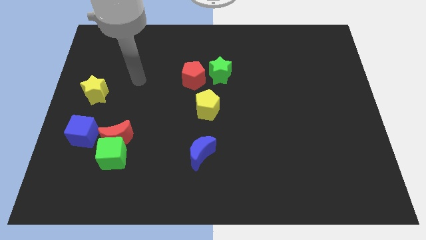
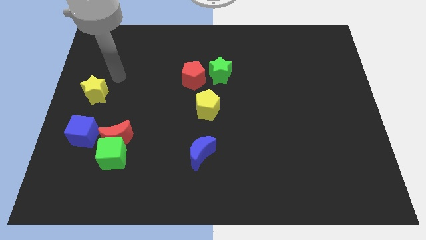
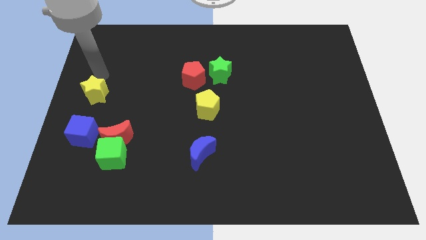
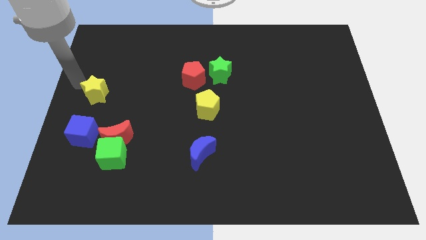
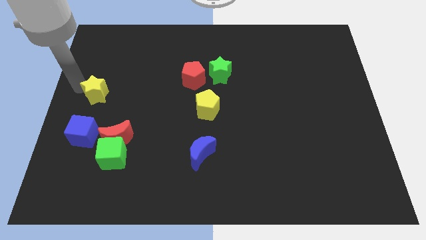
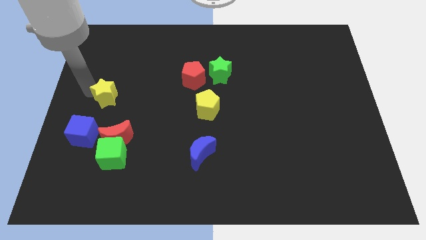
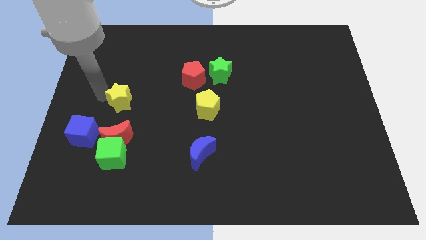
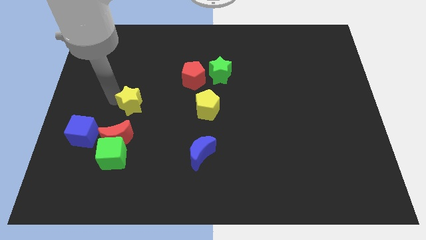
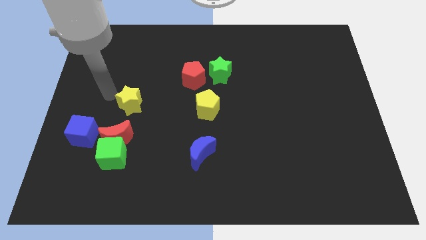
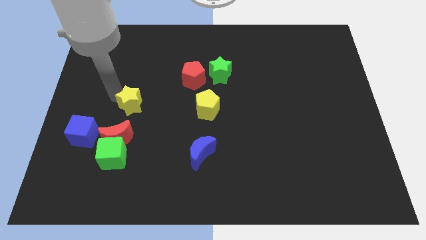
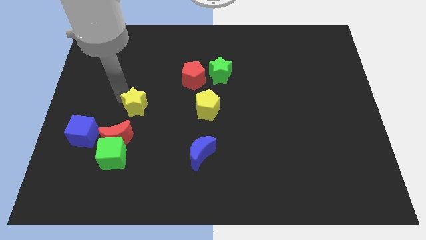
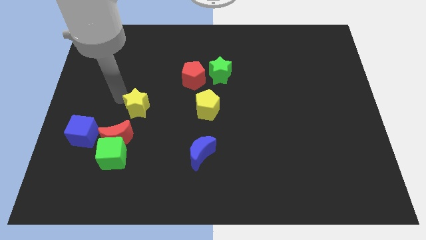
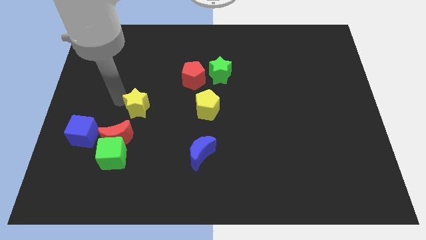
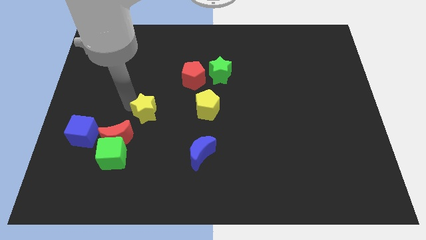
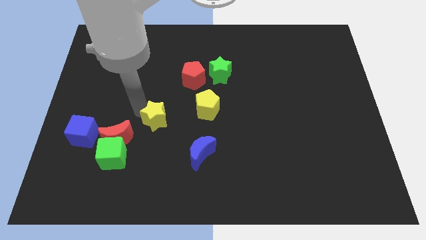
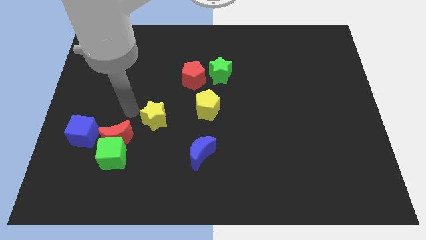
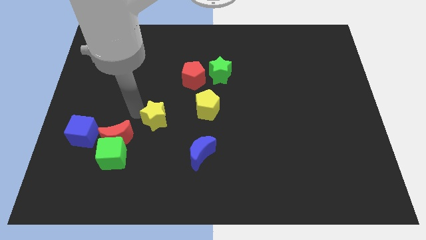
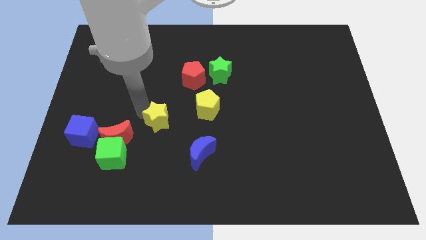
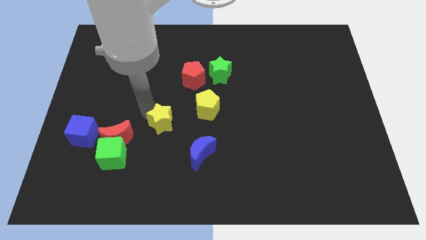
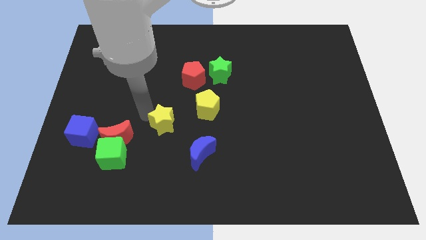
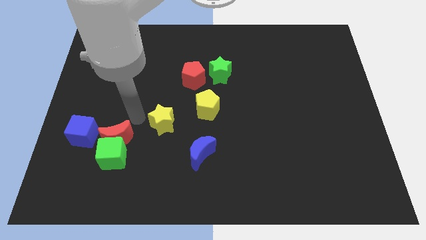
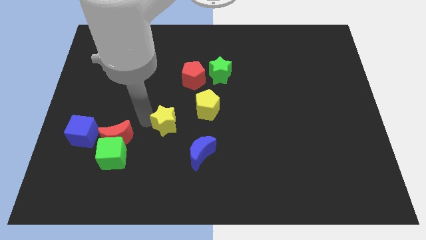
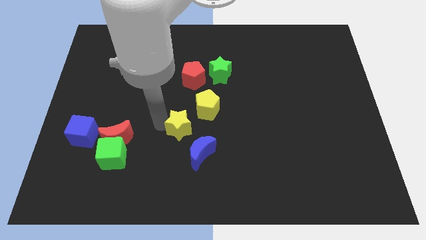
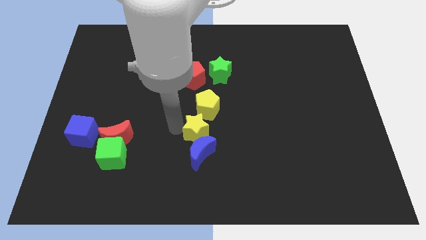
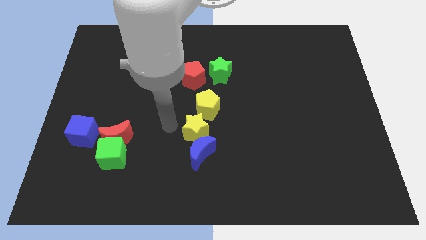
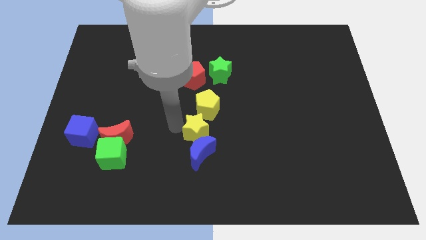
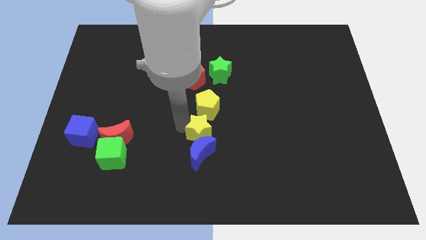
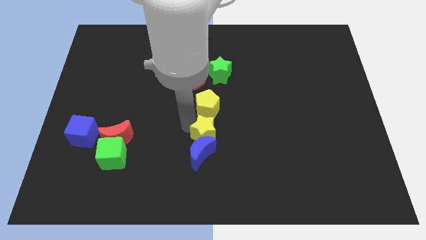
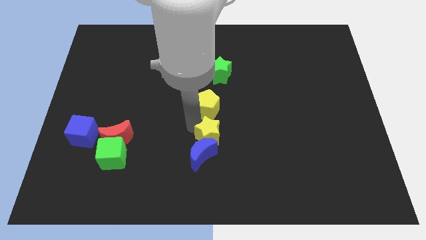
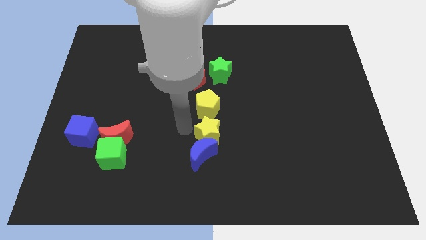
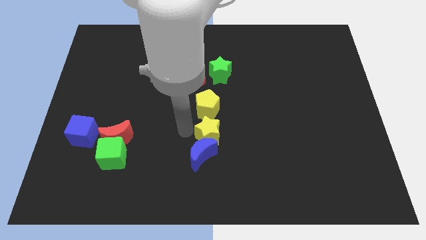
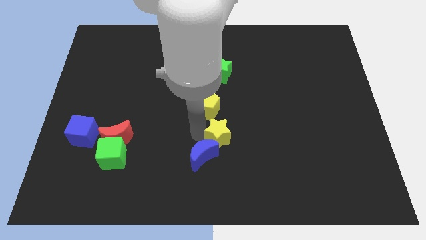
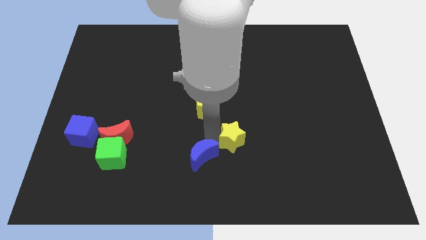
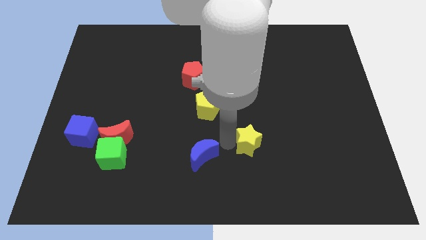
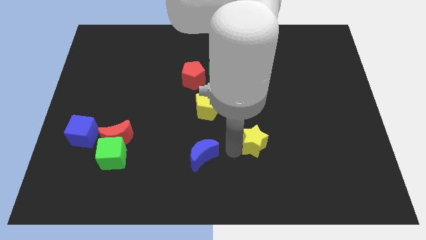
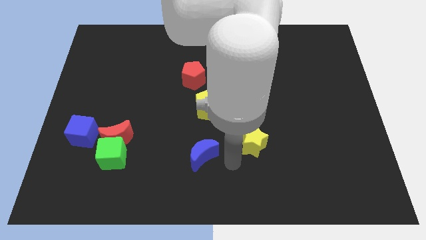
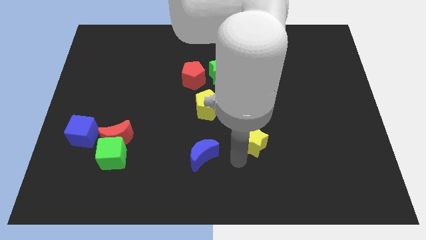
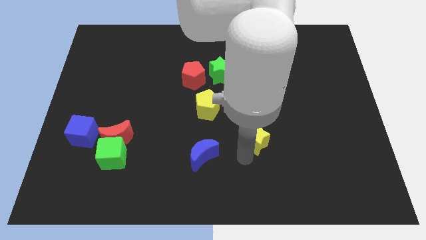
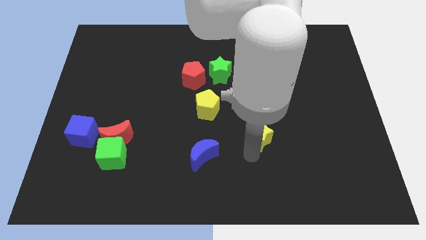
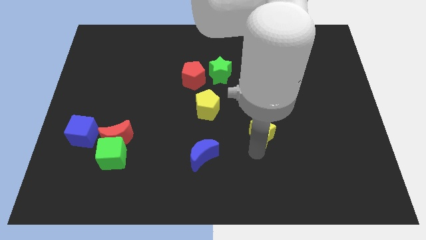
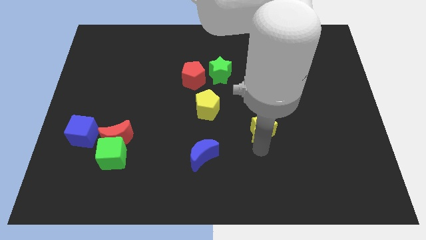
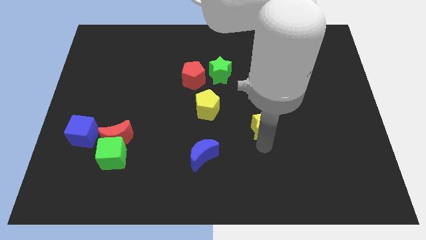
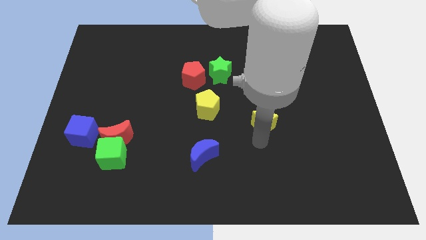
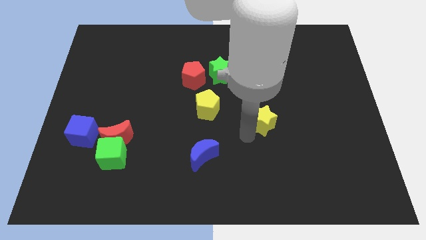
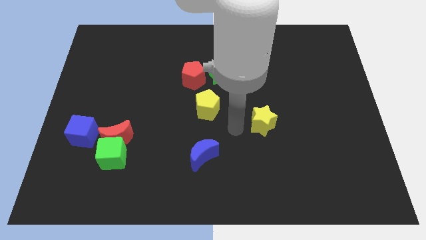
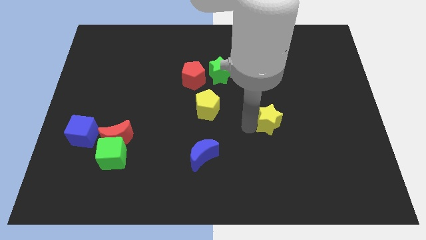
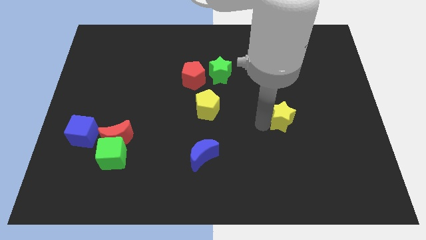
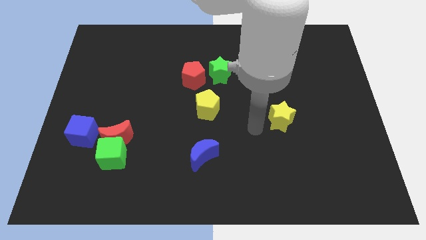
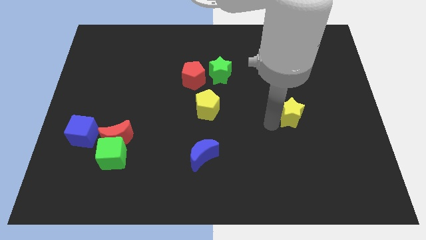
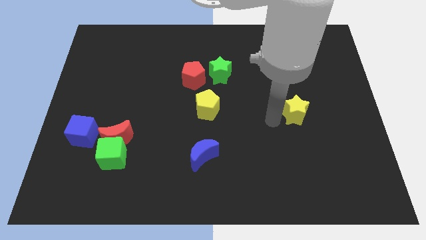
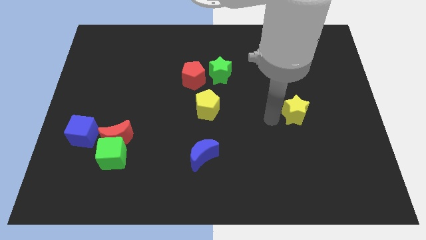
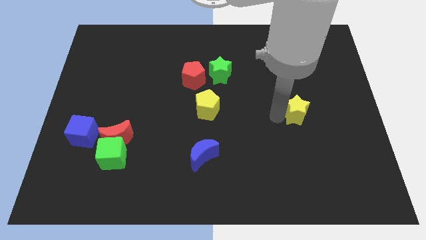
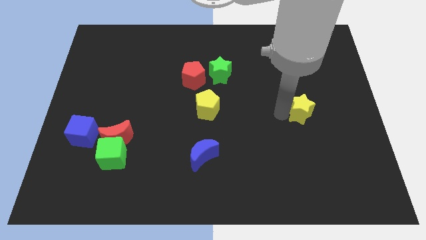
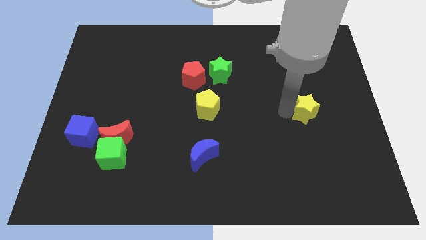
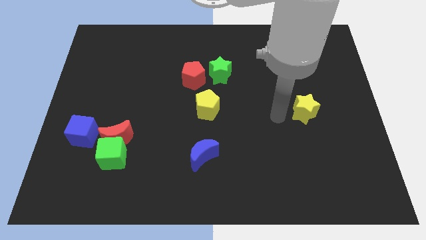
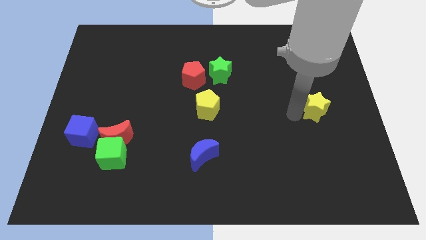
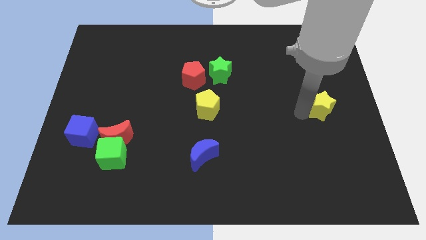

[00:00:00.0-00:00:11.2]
slide the yellow star to the center right

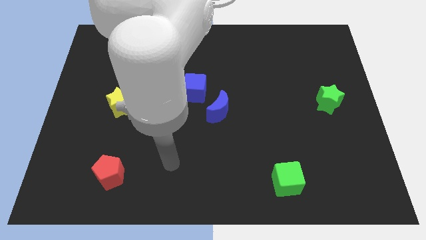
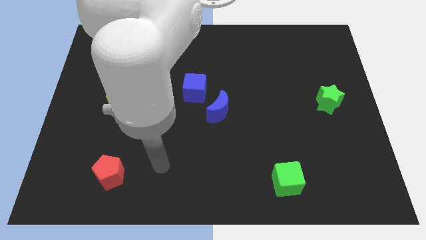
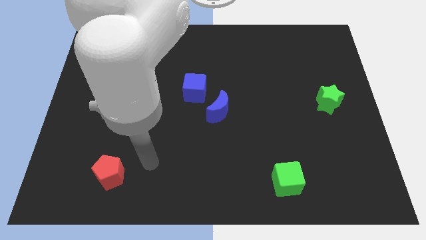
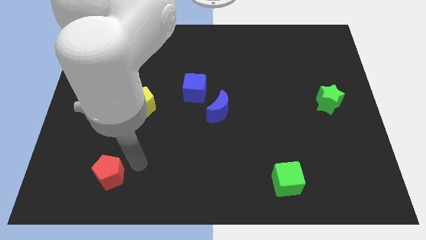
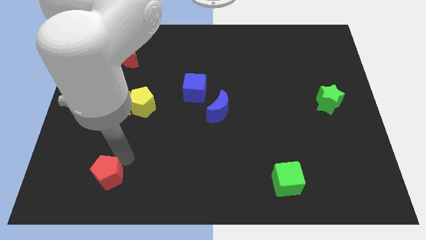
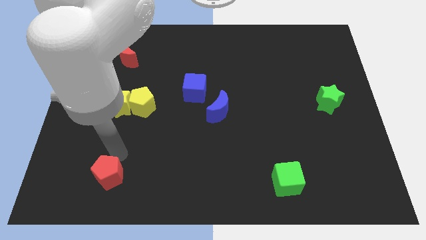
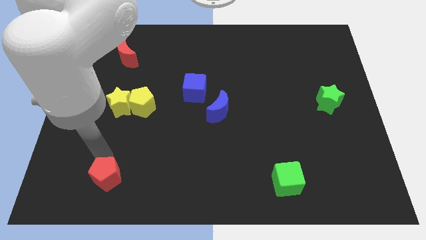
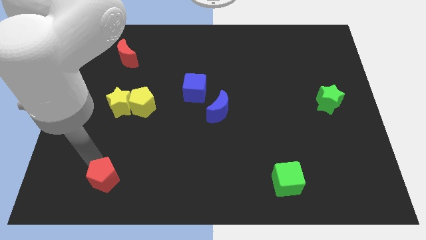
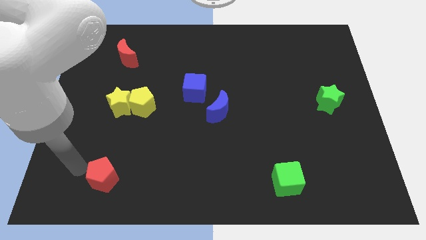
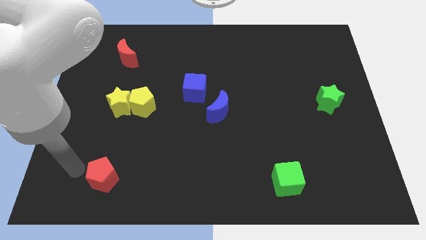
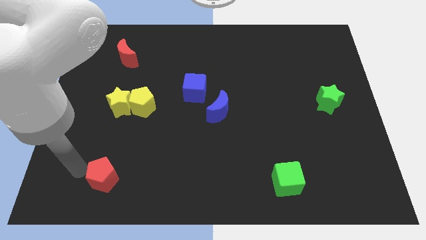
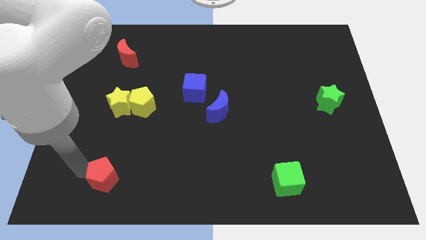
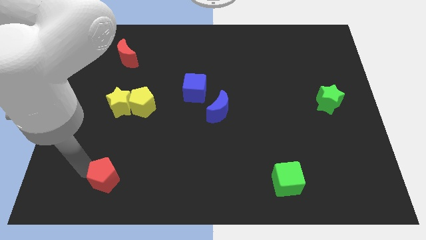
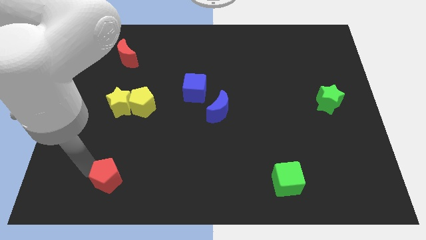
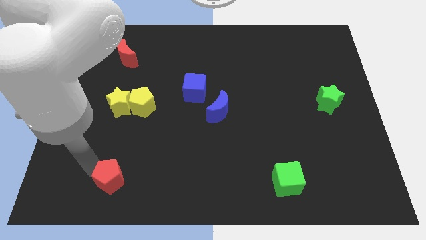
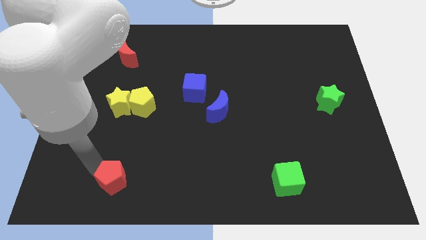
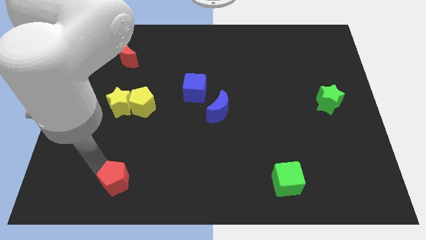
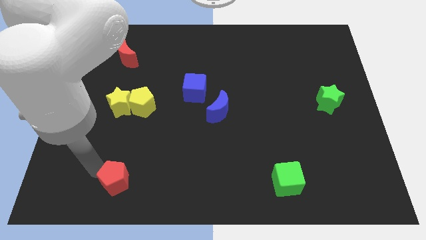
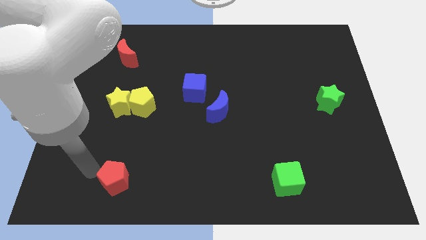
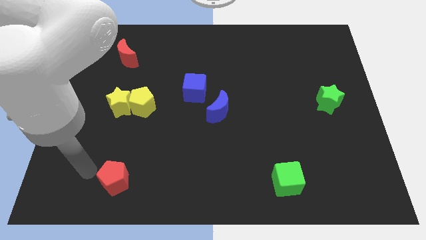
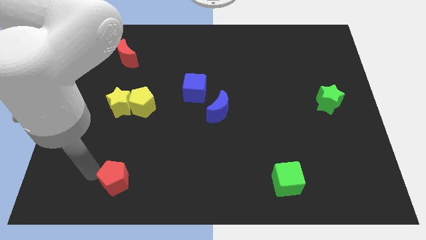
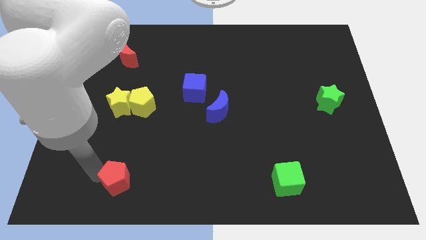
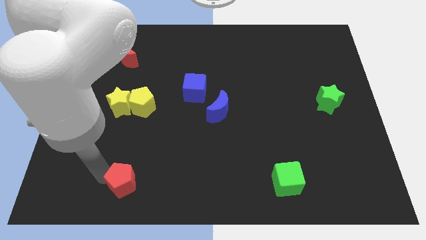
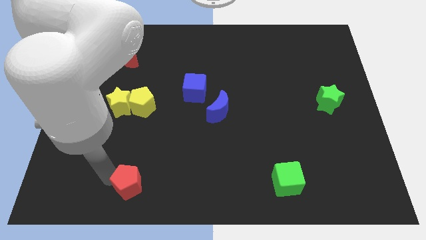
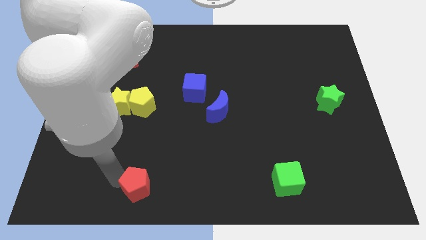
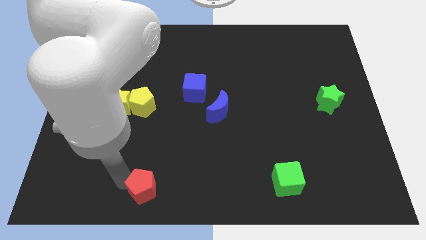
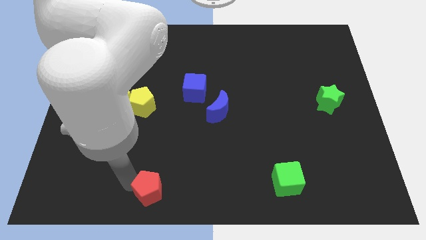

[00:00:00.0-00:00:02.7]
push the red pentagon to the bottom side
